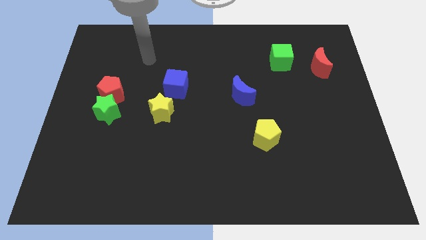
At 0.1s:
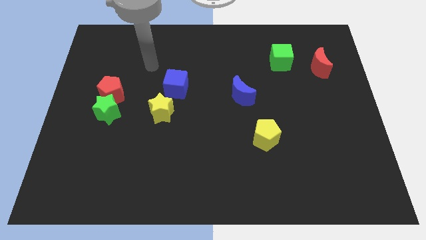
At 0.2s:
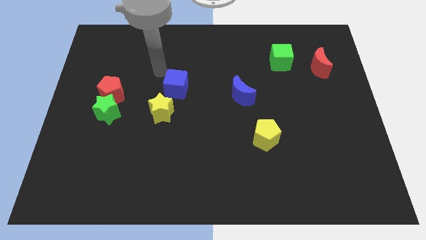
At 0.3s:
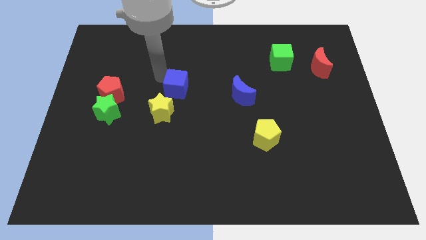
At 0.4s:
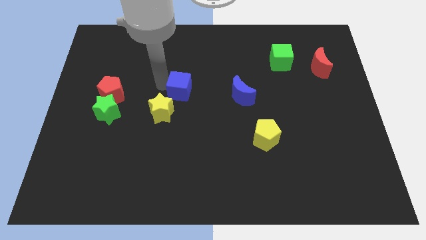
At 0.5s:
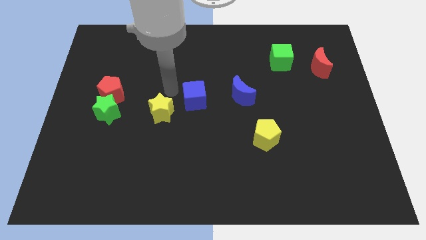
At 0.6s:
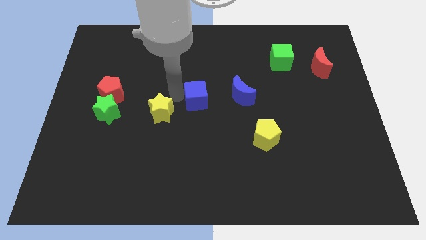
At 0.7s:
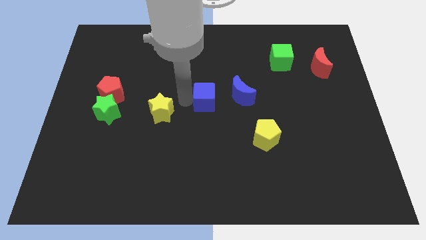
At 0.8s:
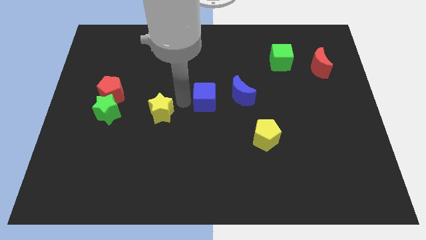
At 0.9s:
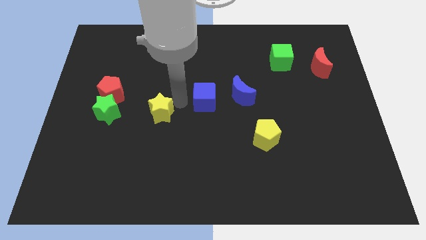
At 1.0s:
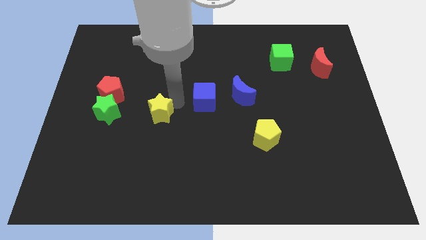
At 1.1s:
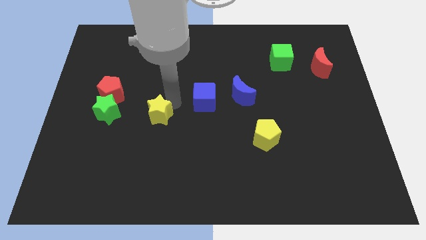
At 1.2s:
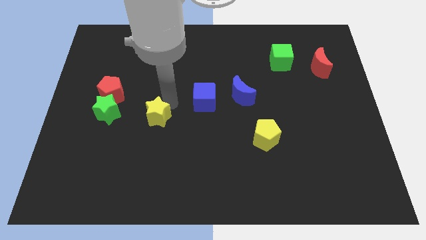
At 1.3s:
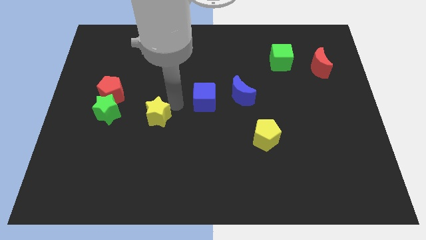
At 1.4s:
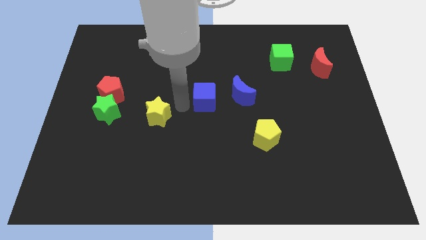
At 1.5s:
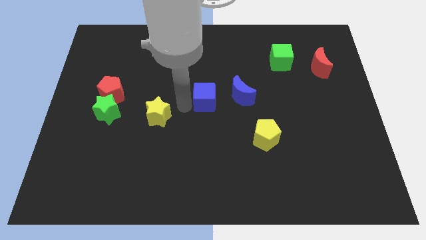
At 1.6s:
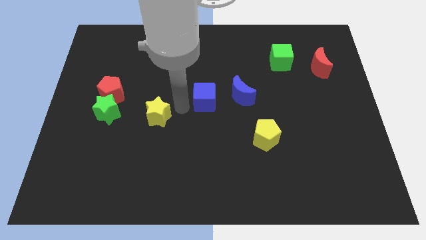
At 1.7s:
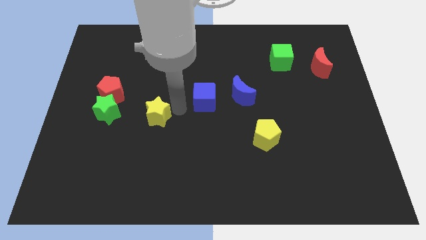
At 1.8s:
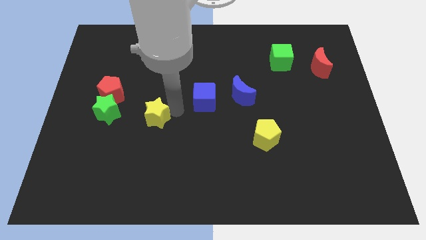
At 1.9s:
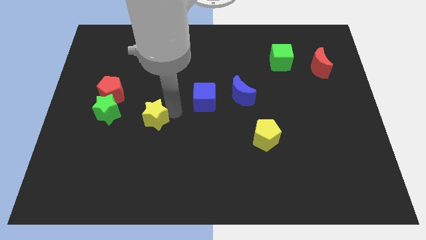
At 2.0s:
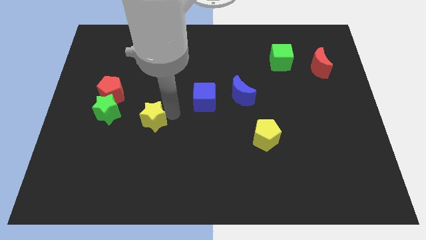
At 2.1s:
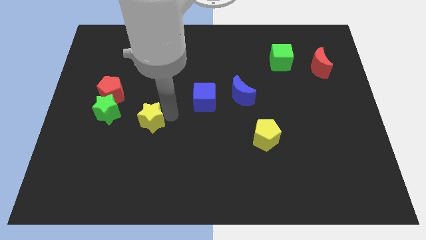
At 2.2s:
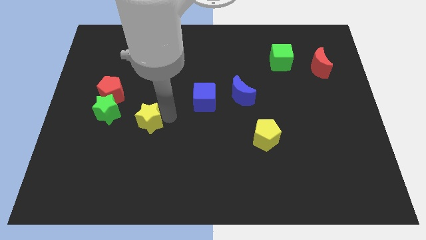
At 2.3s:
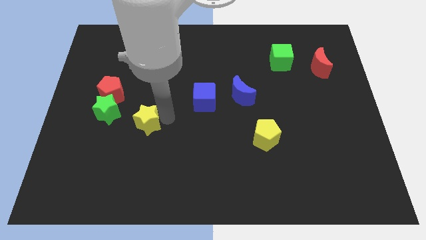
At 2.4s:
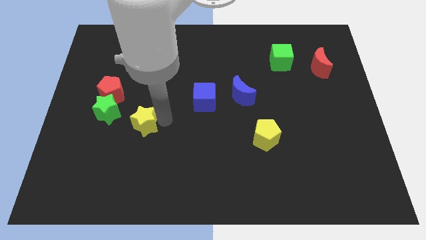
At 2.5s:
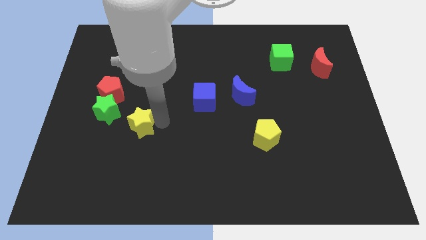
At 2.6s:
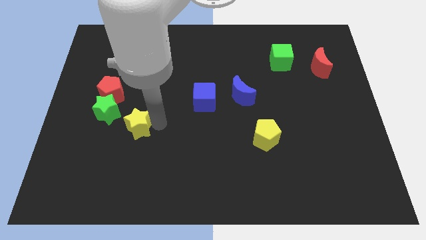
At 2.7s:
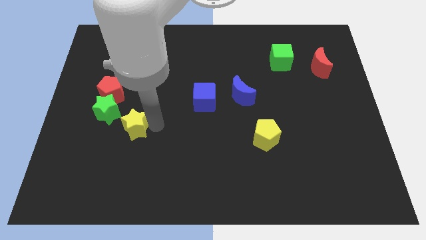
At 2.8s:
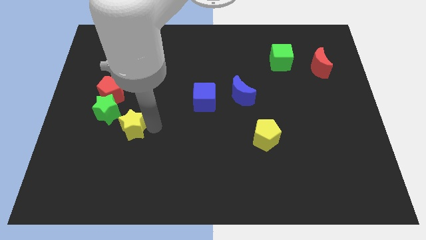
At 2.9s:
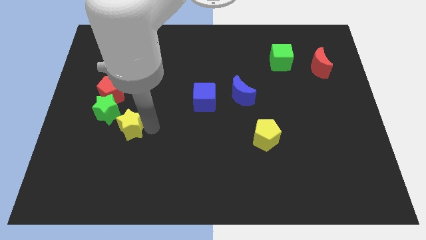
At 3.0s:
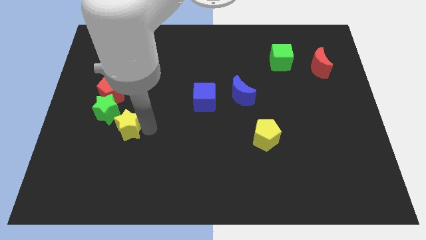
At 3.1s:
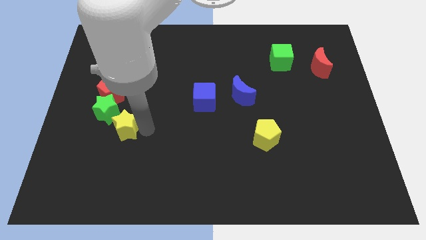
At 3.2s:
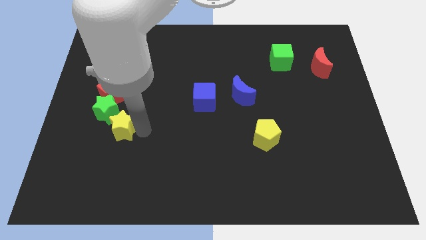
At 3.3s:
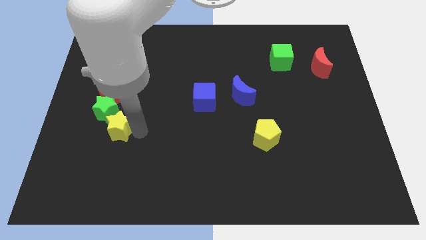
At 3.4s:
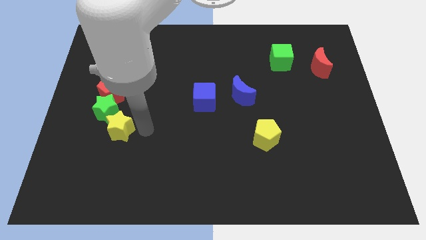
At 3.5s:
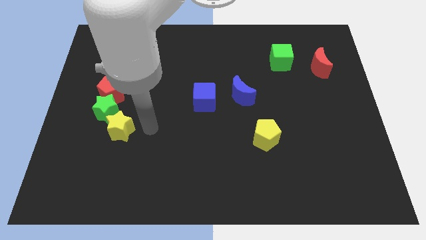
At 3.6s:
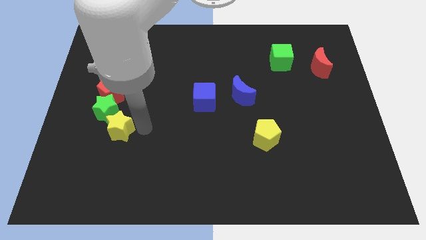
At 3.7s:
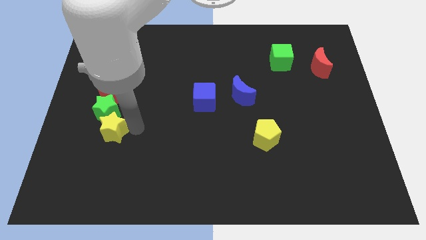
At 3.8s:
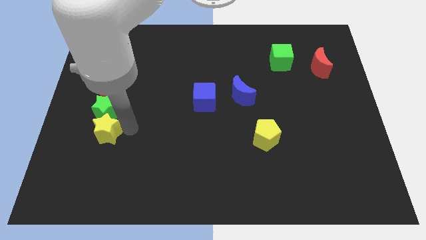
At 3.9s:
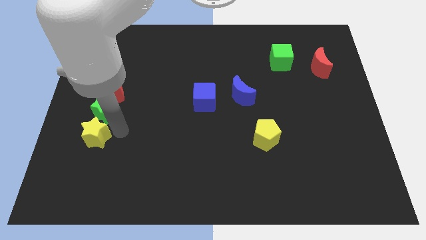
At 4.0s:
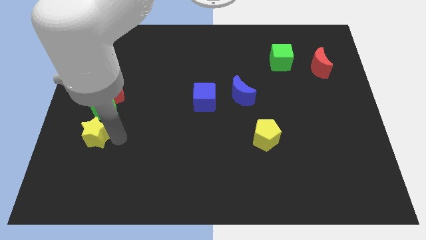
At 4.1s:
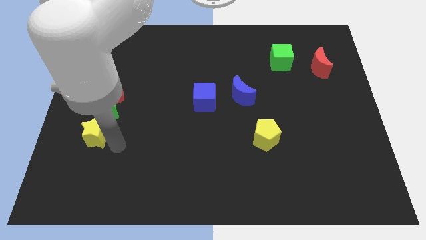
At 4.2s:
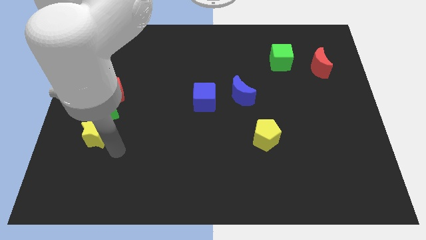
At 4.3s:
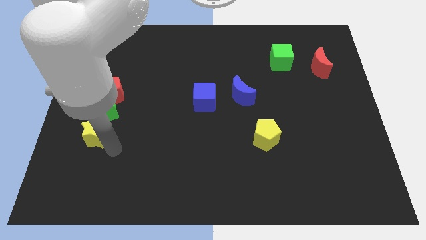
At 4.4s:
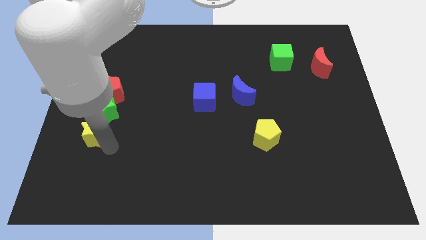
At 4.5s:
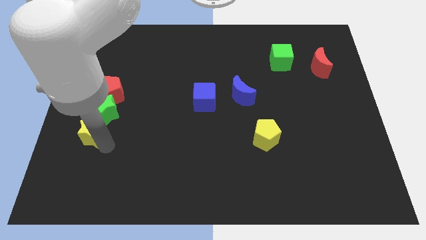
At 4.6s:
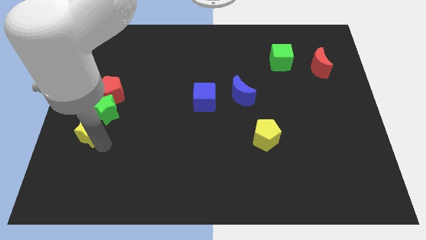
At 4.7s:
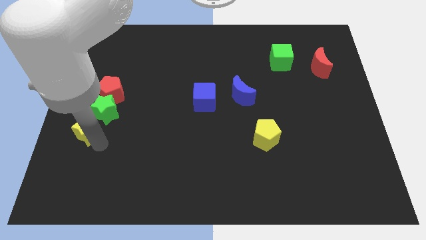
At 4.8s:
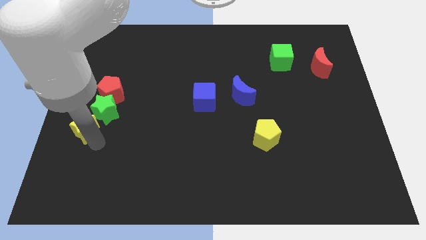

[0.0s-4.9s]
push the yellow star to the left side

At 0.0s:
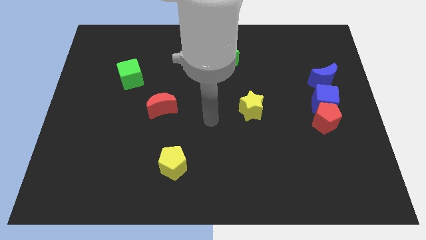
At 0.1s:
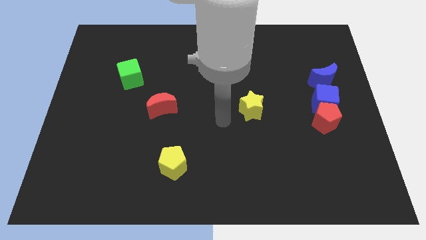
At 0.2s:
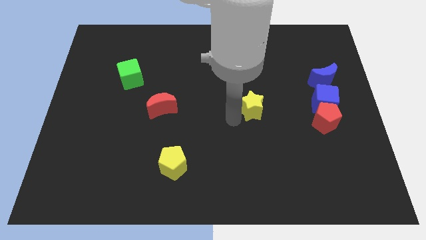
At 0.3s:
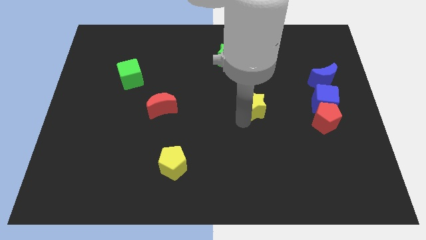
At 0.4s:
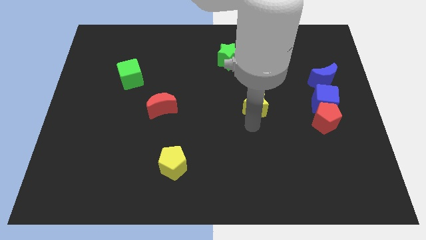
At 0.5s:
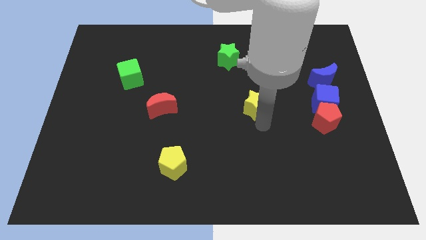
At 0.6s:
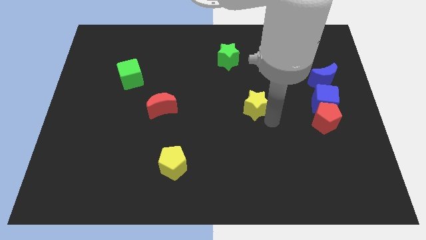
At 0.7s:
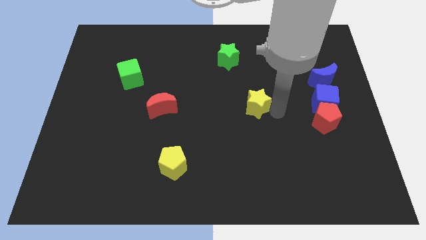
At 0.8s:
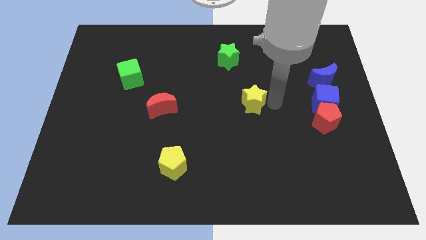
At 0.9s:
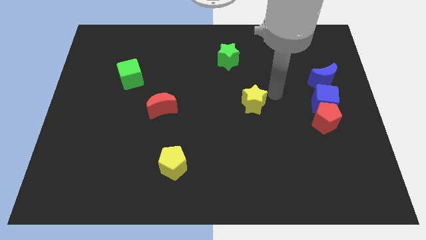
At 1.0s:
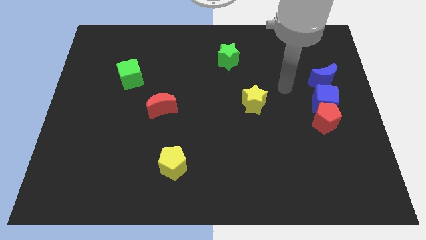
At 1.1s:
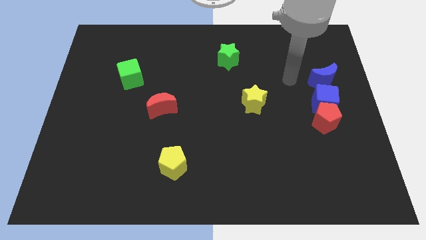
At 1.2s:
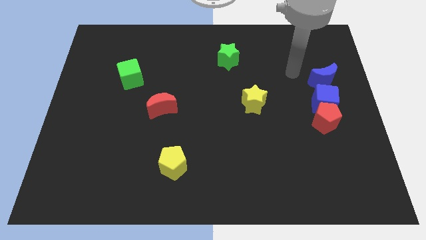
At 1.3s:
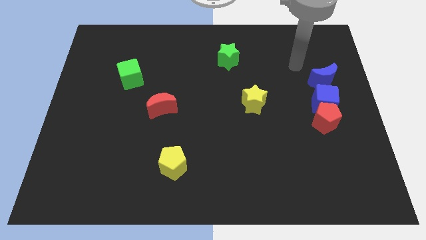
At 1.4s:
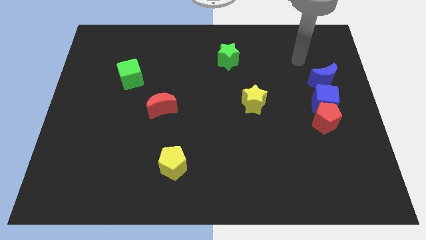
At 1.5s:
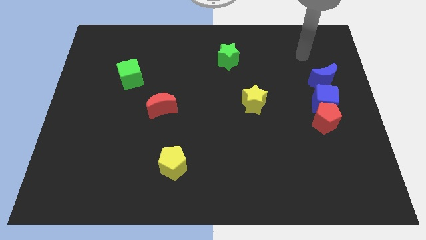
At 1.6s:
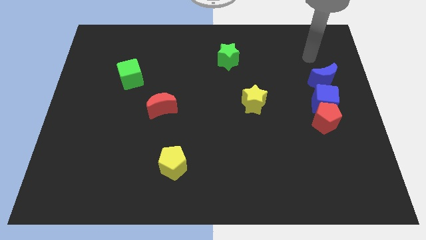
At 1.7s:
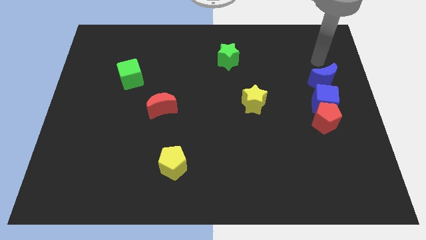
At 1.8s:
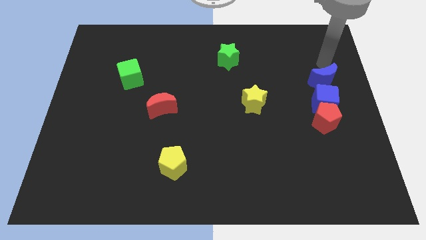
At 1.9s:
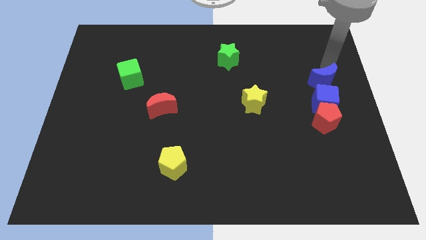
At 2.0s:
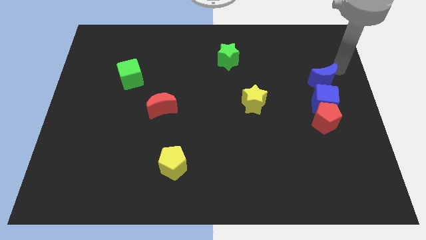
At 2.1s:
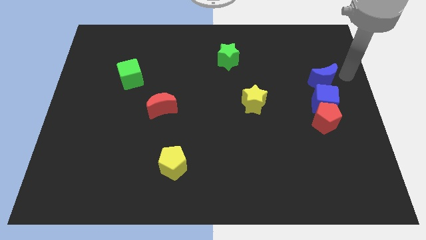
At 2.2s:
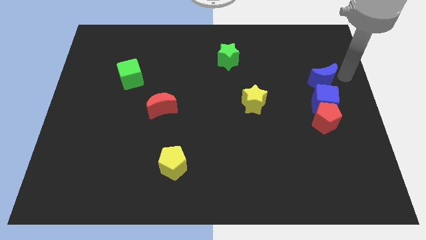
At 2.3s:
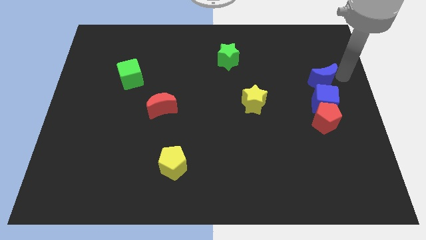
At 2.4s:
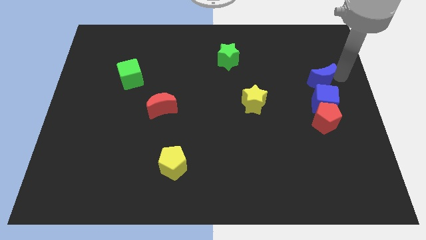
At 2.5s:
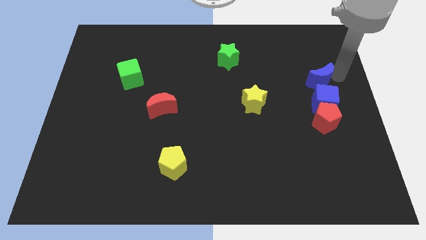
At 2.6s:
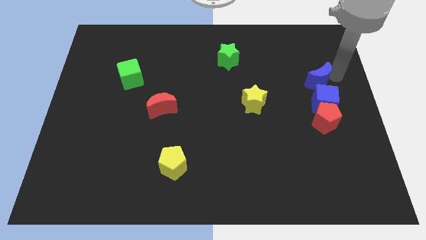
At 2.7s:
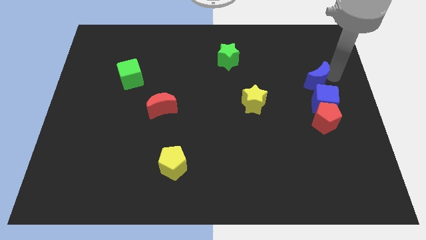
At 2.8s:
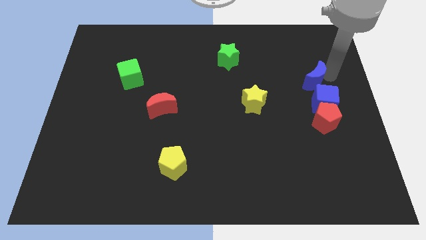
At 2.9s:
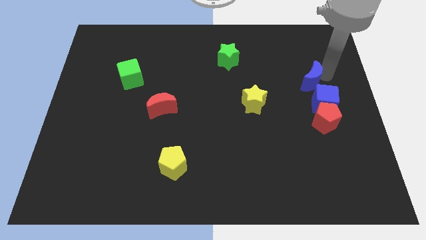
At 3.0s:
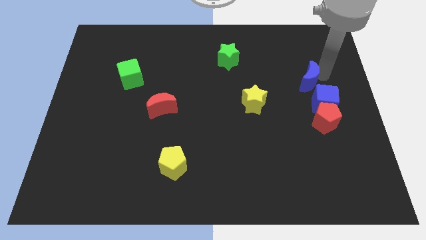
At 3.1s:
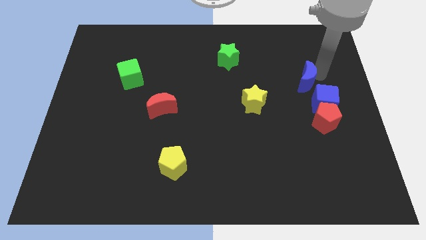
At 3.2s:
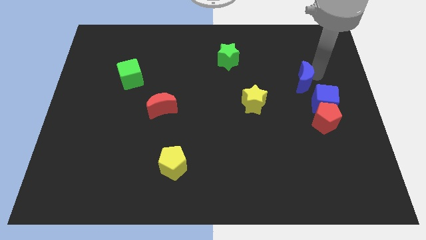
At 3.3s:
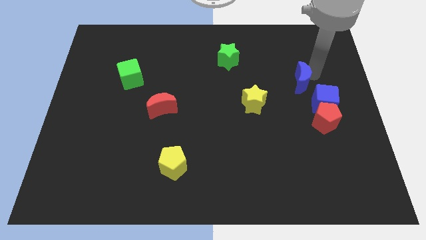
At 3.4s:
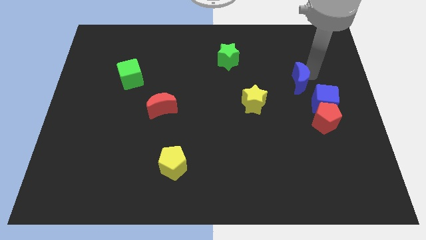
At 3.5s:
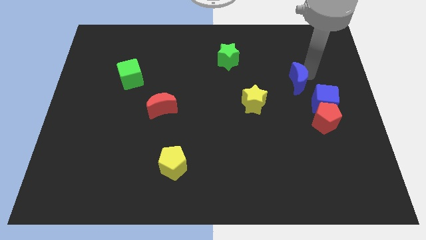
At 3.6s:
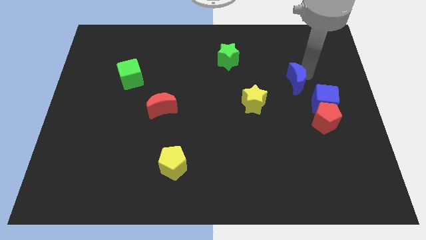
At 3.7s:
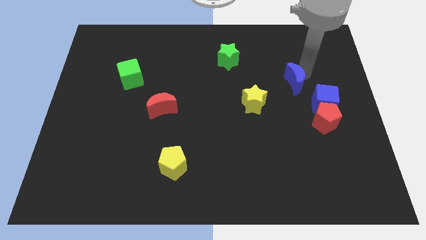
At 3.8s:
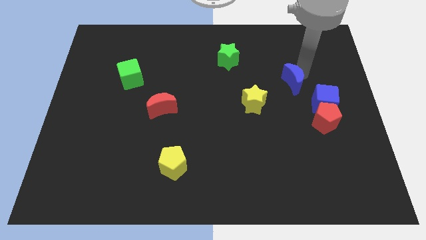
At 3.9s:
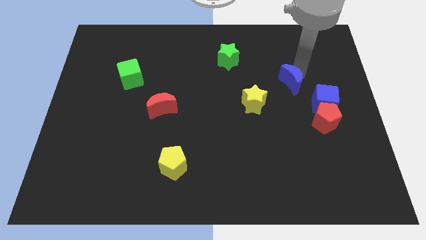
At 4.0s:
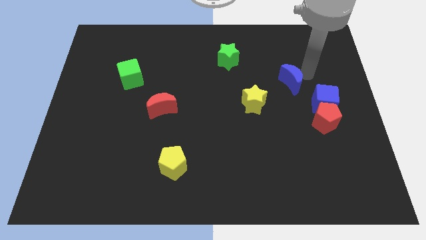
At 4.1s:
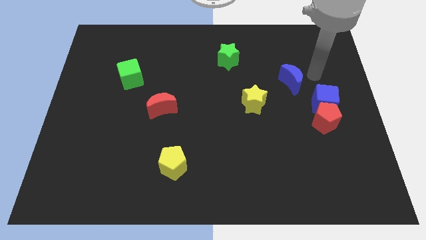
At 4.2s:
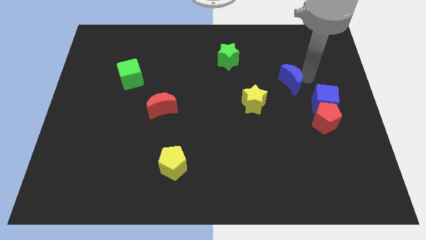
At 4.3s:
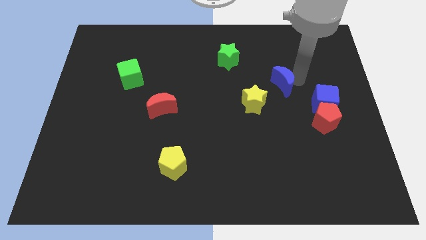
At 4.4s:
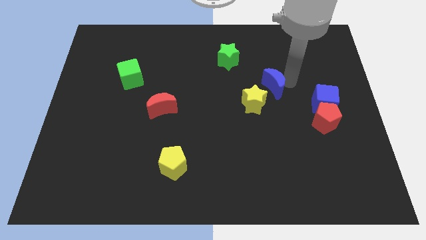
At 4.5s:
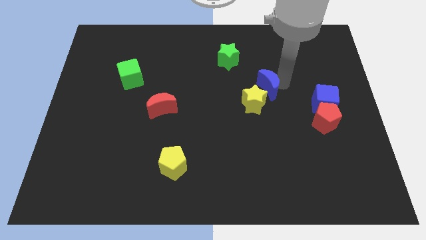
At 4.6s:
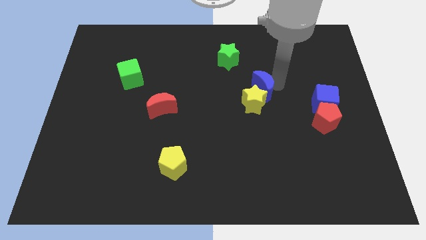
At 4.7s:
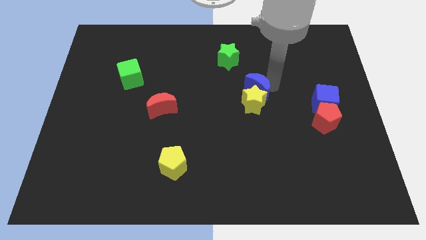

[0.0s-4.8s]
put the blue moon to the middle
